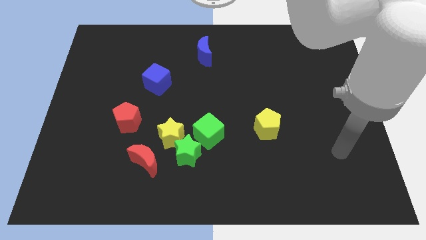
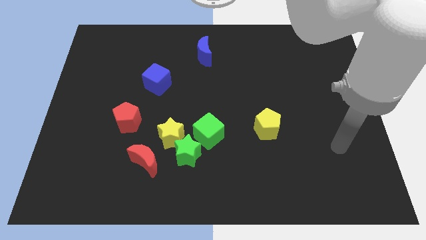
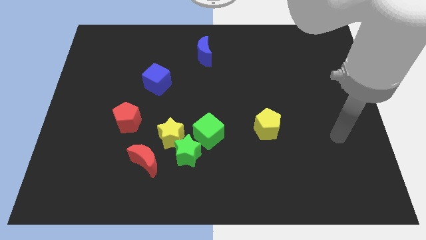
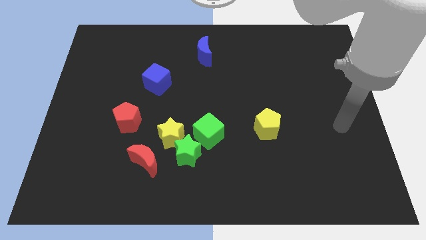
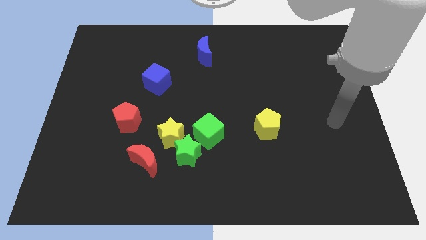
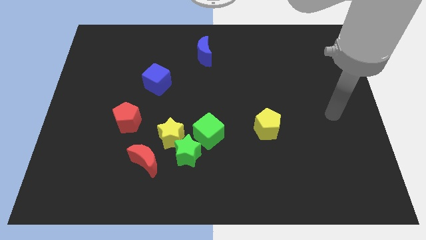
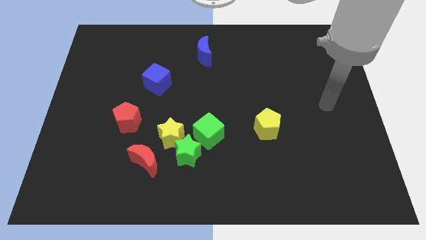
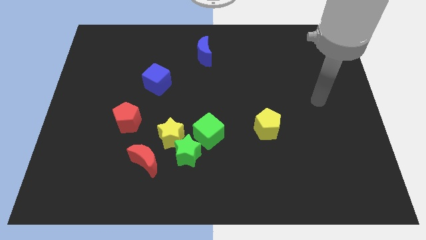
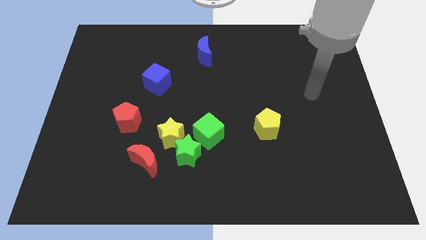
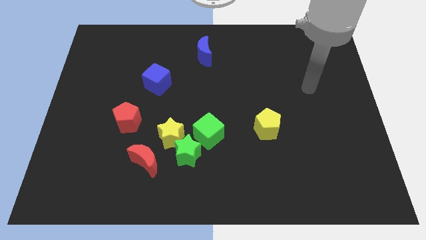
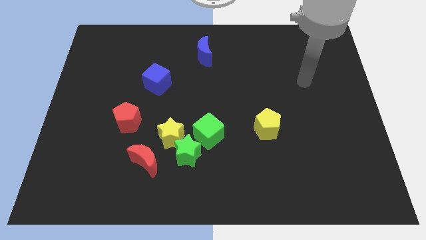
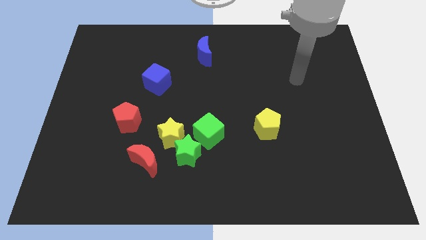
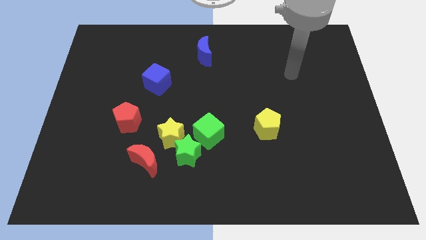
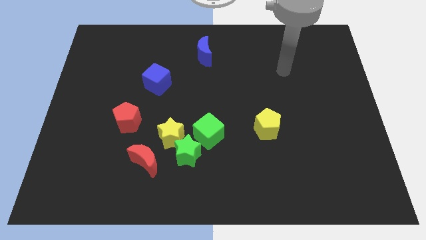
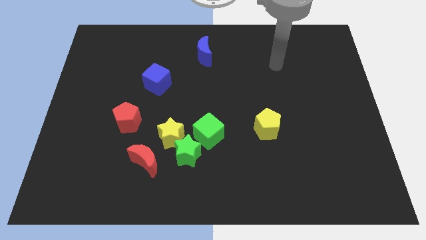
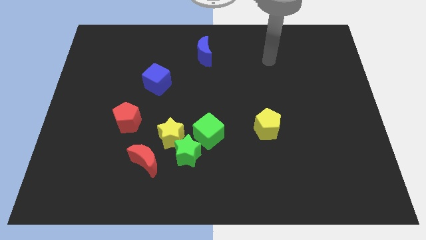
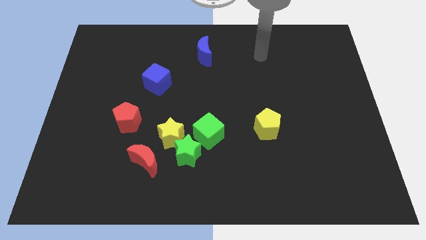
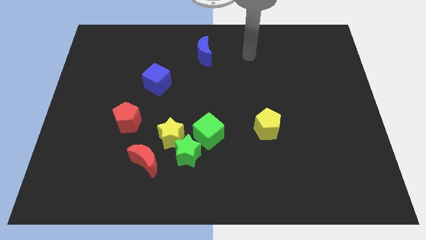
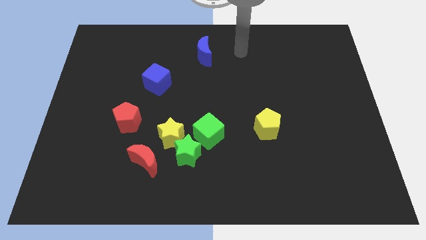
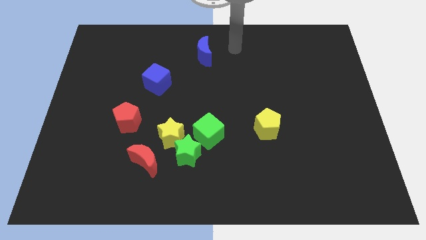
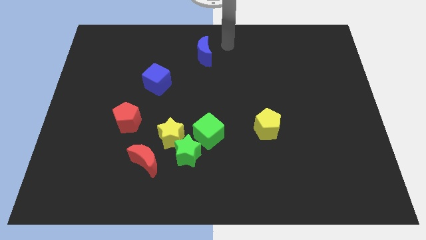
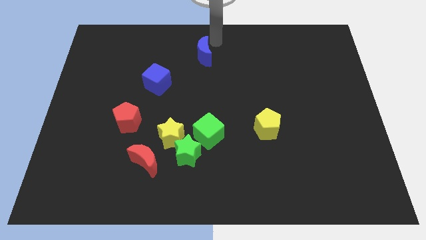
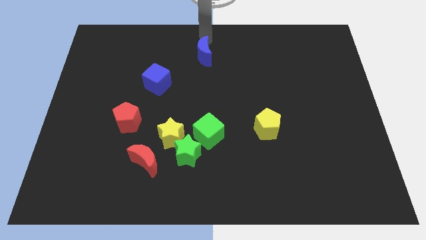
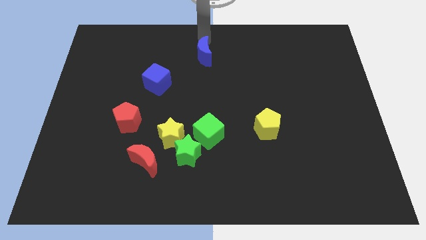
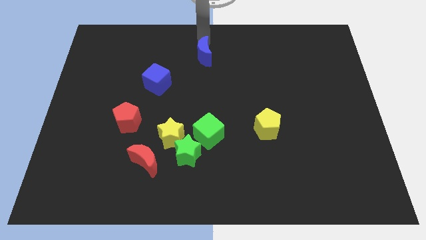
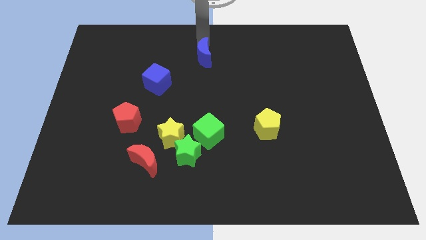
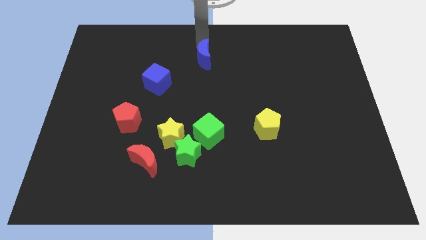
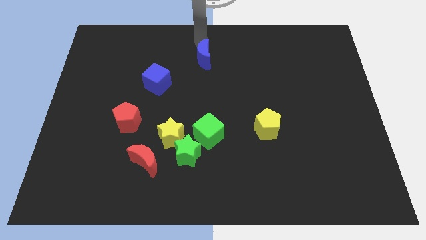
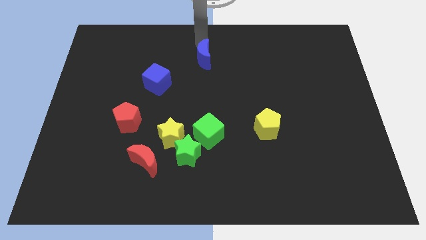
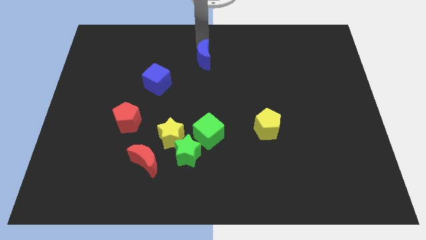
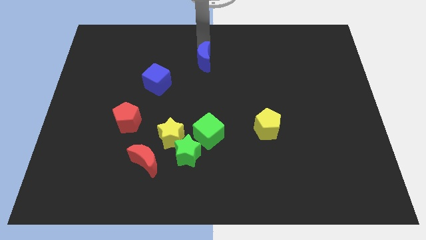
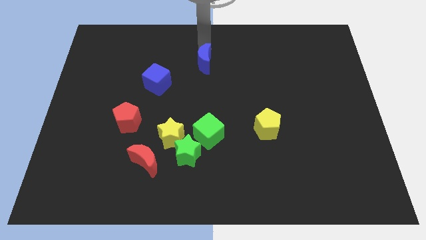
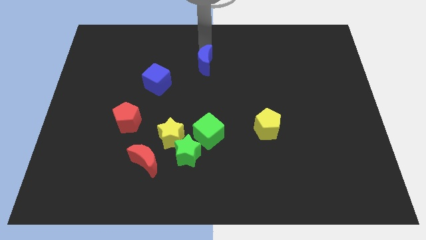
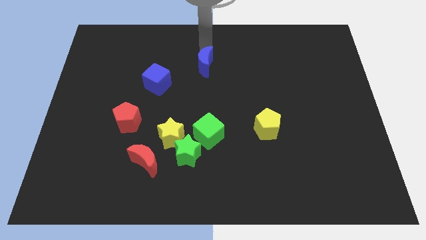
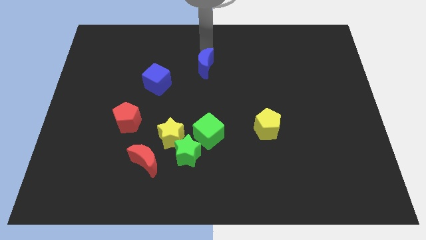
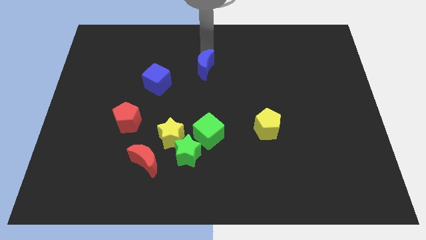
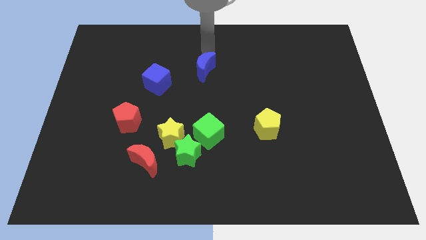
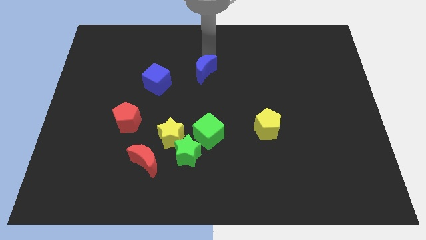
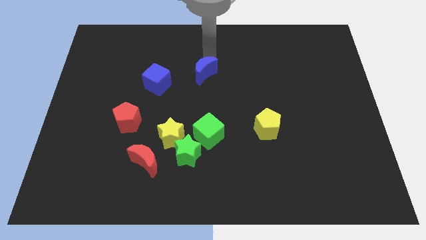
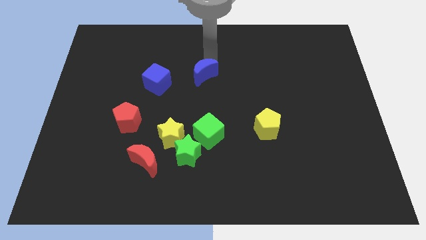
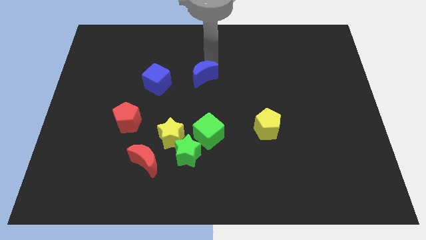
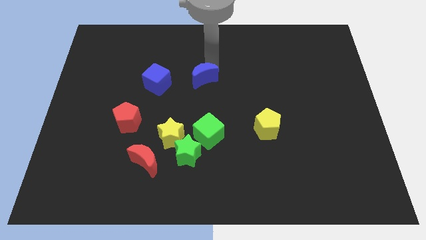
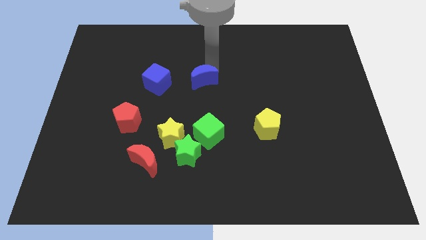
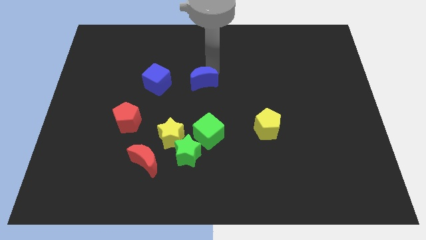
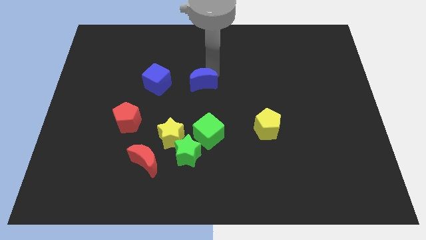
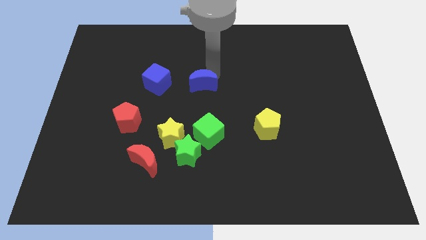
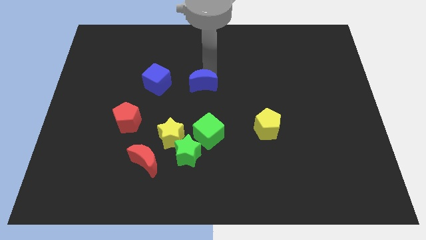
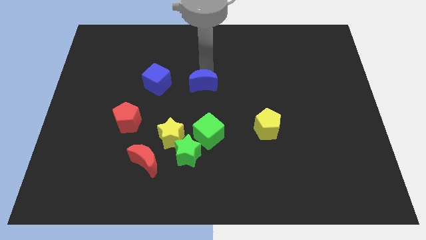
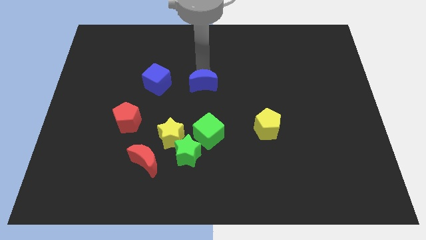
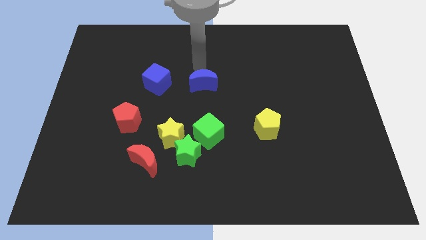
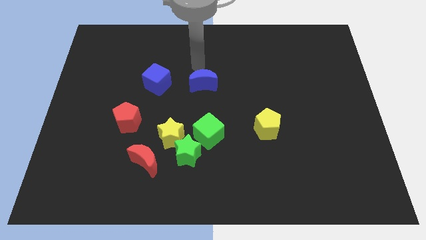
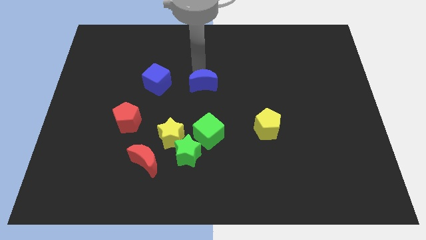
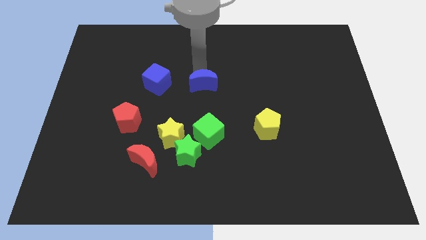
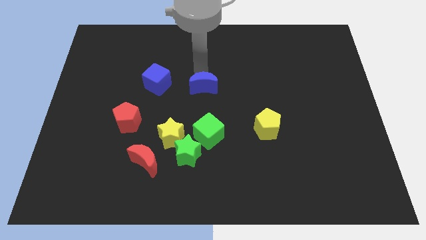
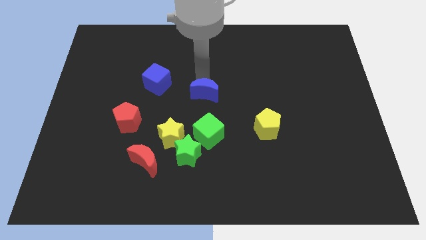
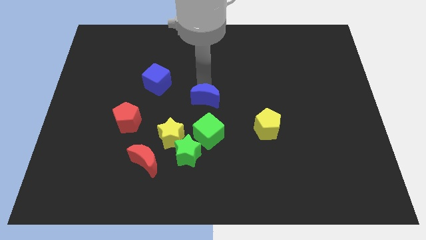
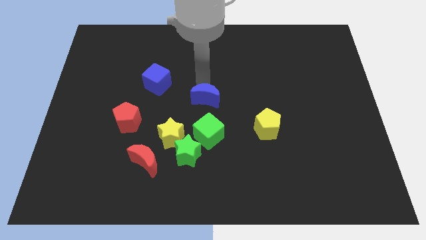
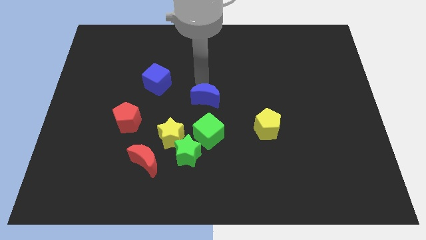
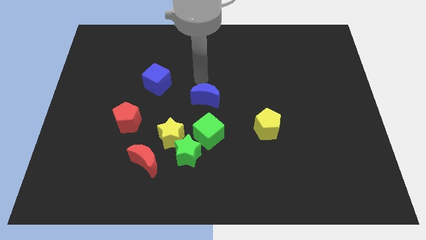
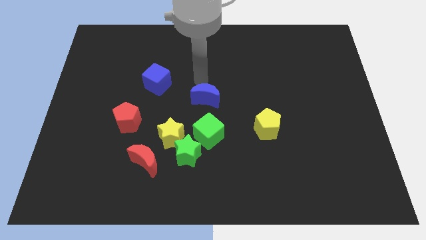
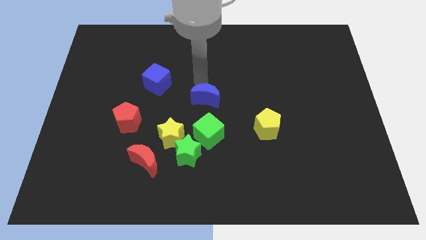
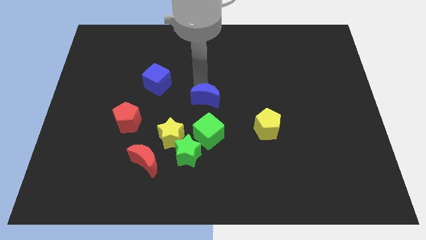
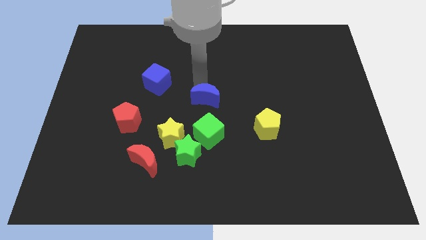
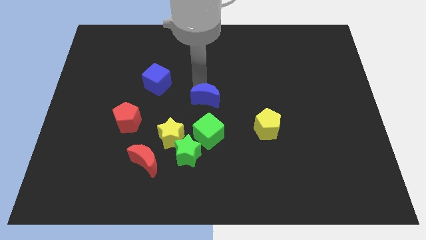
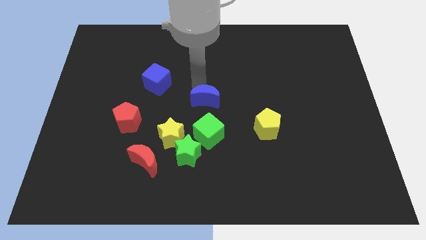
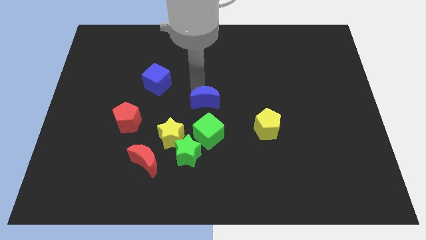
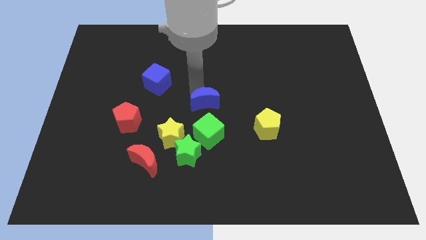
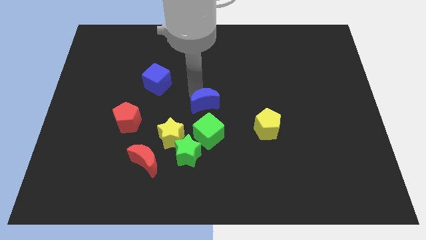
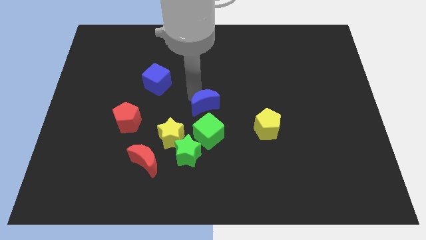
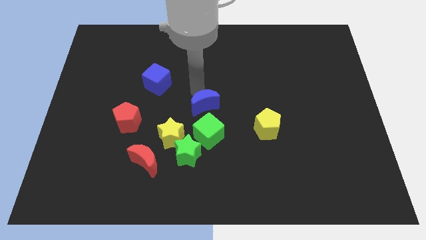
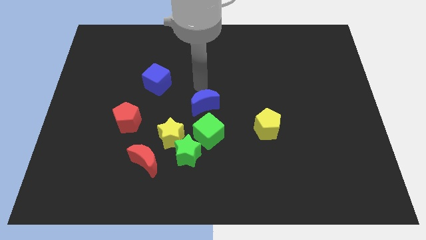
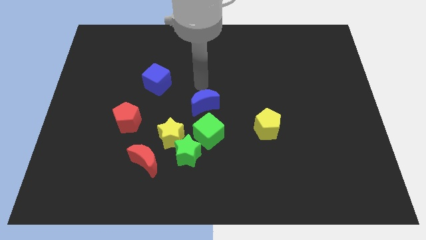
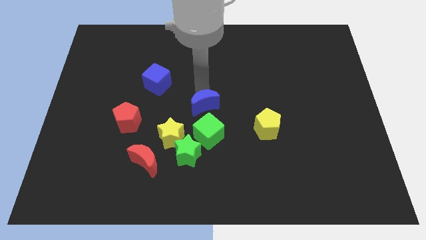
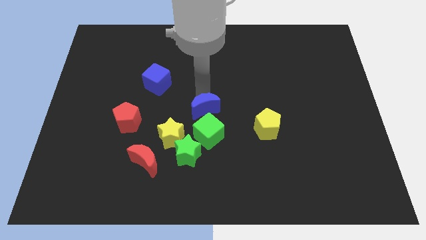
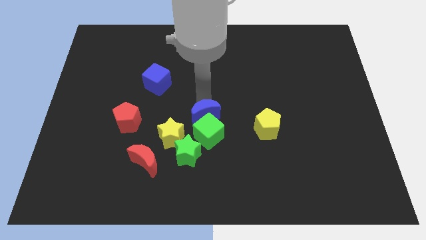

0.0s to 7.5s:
move the blue moon close to the green cube
